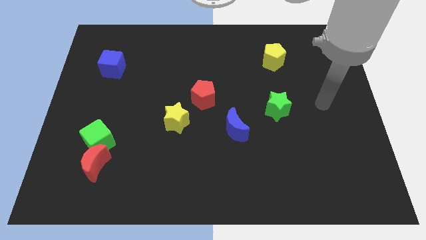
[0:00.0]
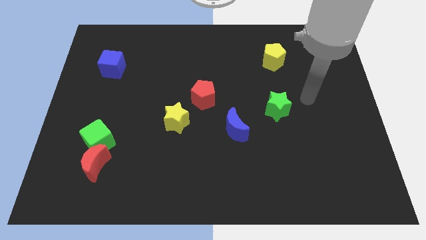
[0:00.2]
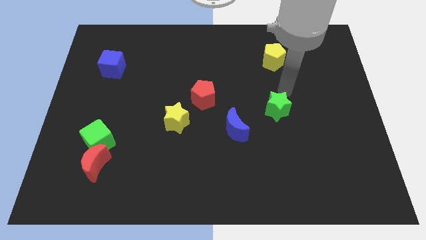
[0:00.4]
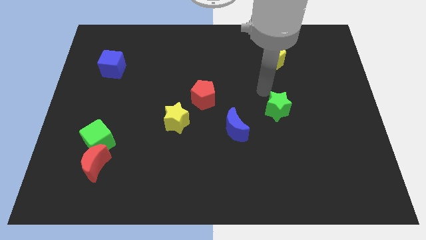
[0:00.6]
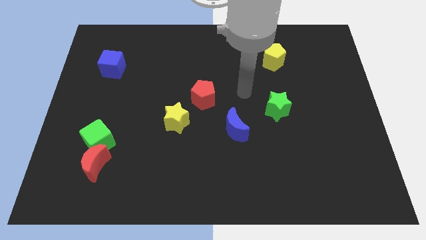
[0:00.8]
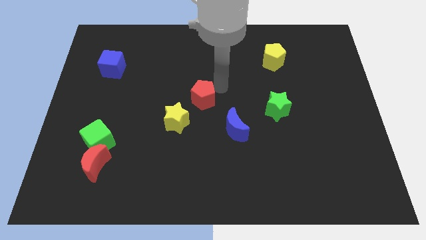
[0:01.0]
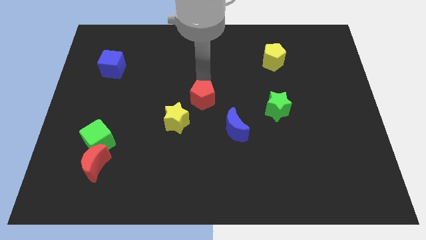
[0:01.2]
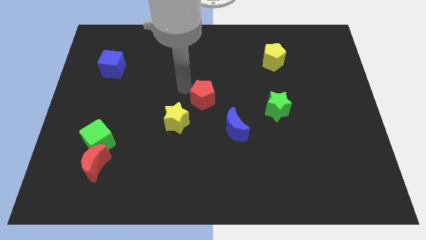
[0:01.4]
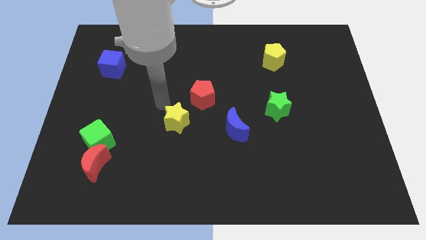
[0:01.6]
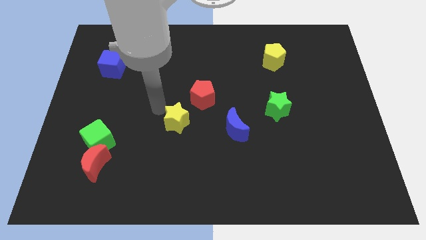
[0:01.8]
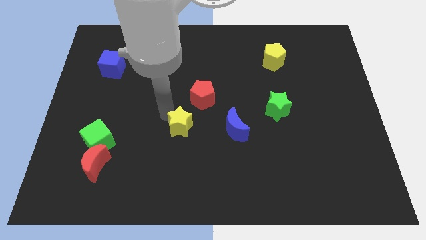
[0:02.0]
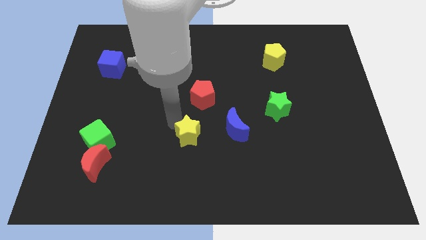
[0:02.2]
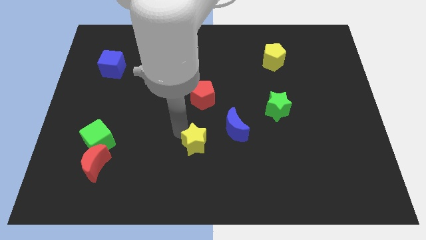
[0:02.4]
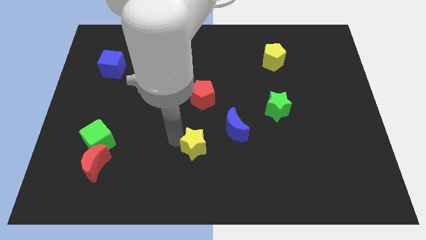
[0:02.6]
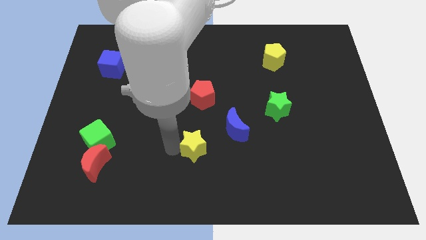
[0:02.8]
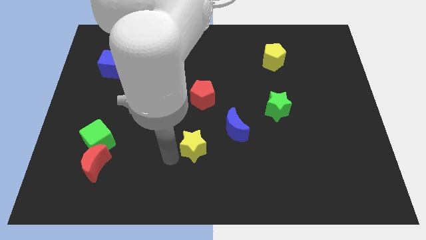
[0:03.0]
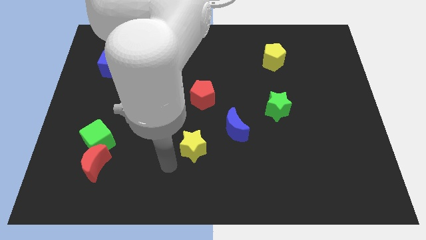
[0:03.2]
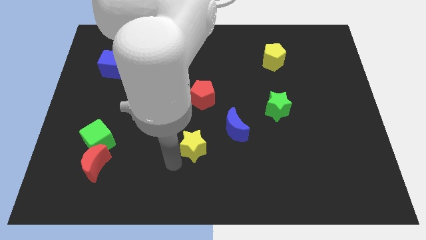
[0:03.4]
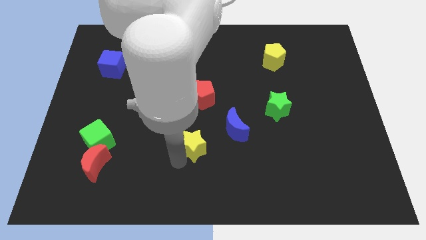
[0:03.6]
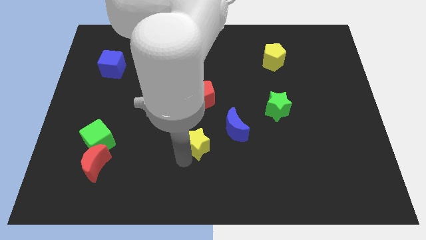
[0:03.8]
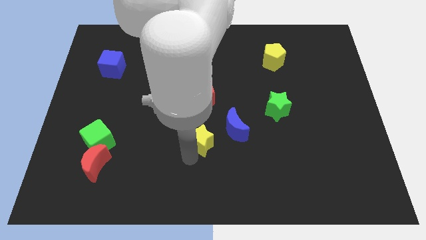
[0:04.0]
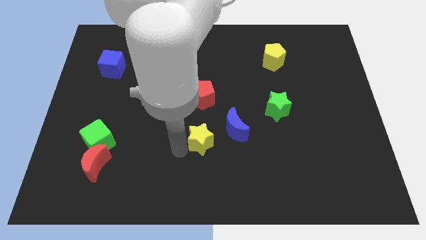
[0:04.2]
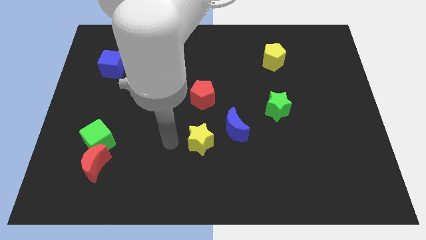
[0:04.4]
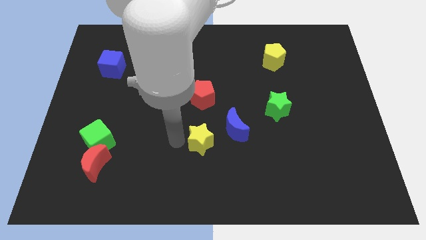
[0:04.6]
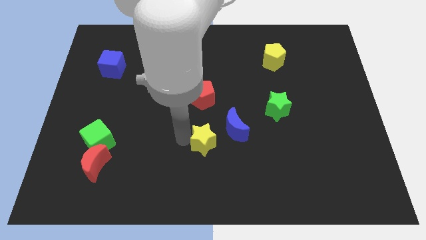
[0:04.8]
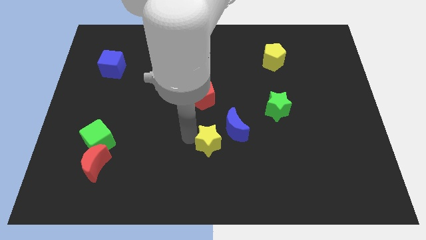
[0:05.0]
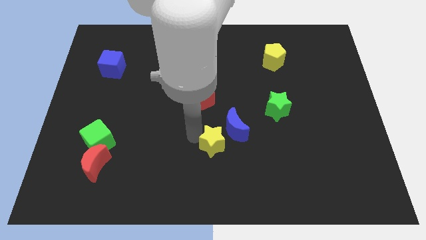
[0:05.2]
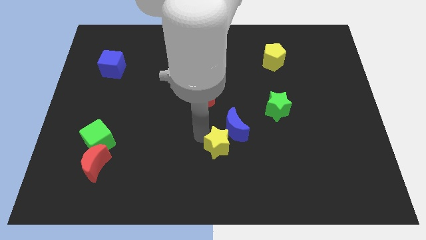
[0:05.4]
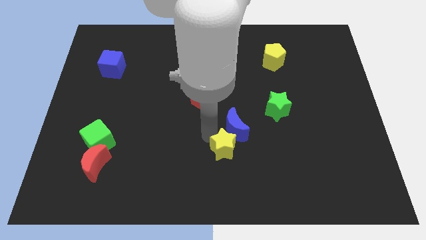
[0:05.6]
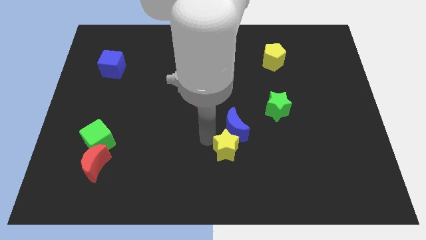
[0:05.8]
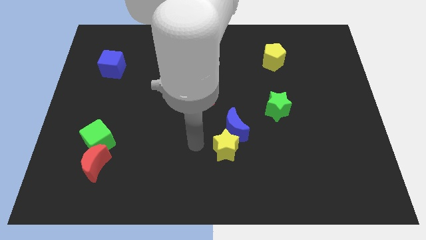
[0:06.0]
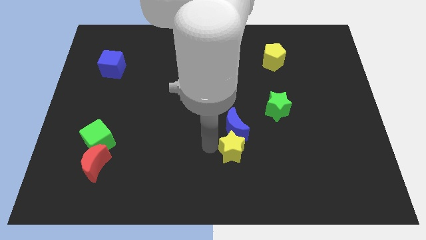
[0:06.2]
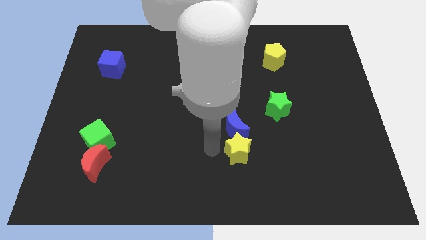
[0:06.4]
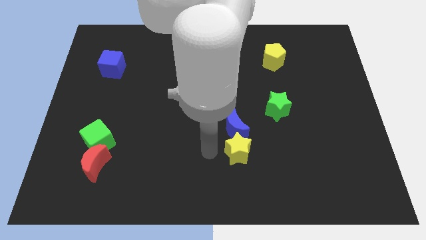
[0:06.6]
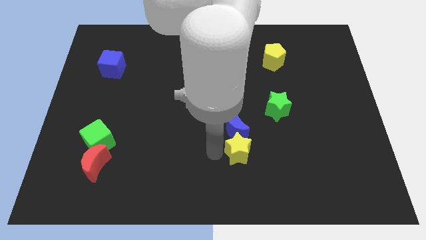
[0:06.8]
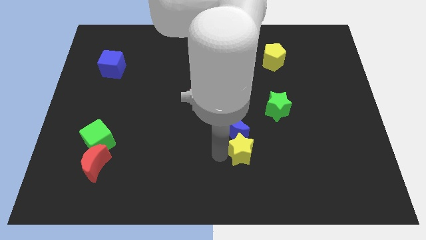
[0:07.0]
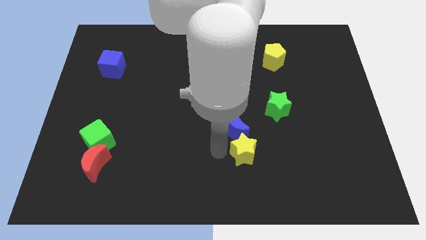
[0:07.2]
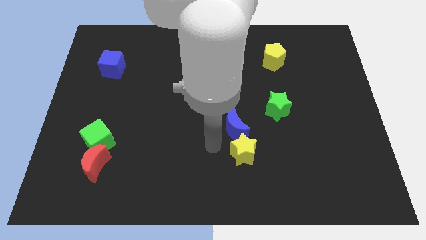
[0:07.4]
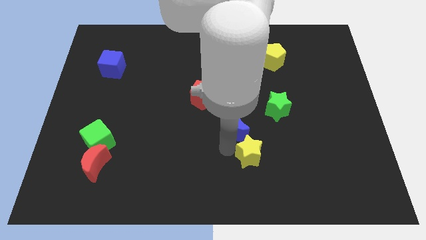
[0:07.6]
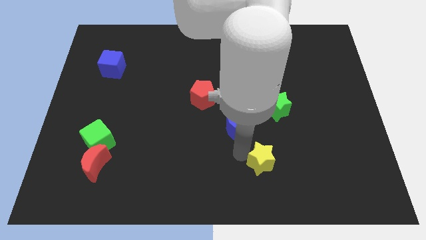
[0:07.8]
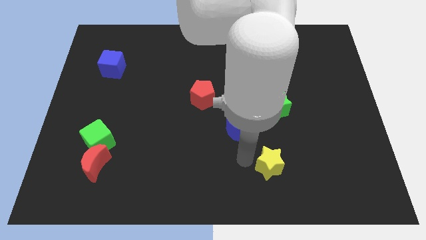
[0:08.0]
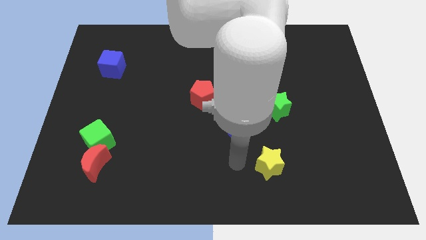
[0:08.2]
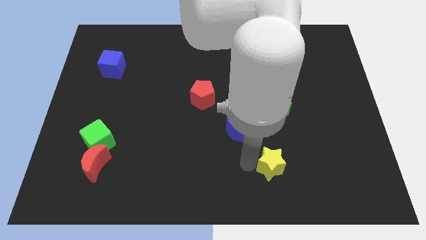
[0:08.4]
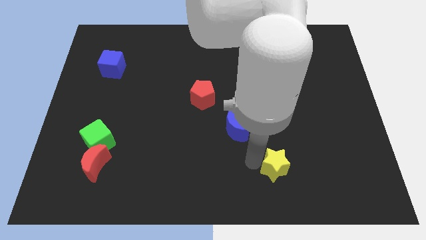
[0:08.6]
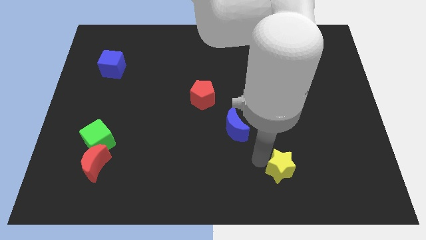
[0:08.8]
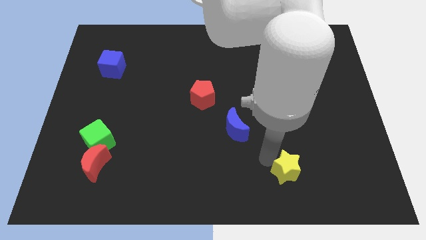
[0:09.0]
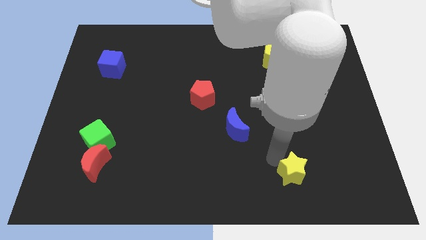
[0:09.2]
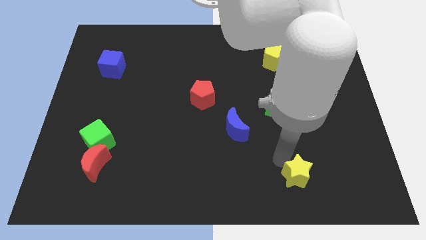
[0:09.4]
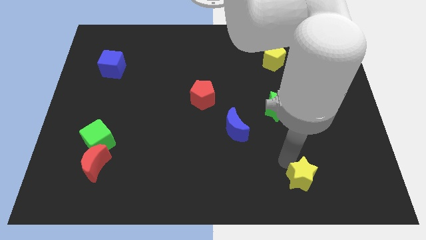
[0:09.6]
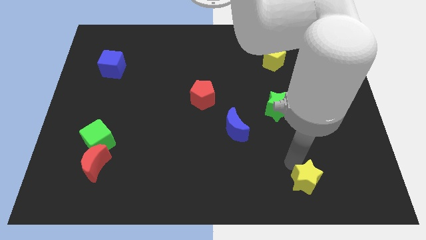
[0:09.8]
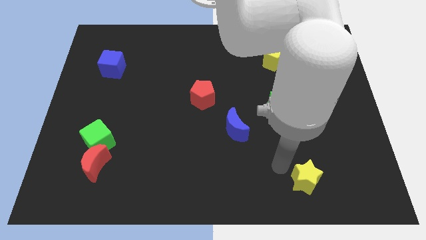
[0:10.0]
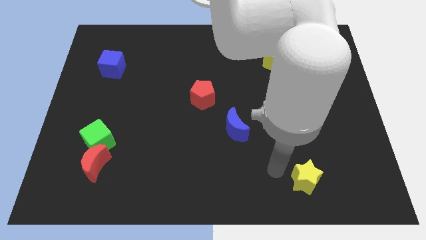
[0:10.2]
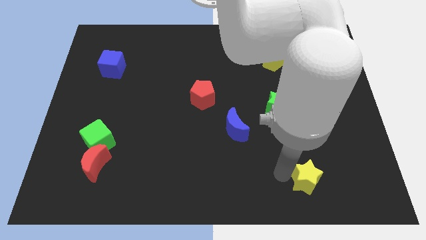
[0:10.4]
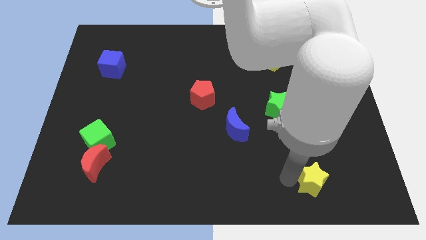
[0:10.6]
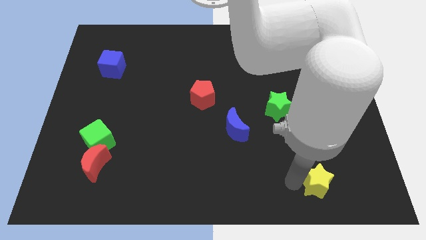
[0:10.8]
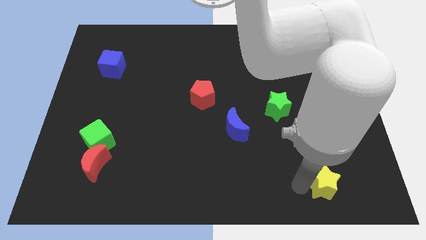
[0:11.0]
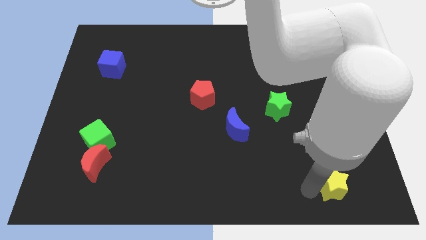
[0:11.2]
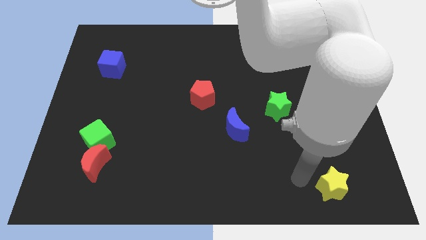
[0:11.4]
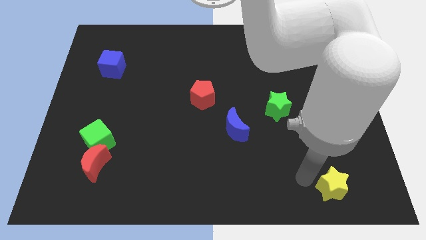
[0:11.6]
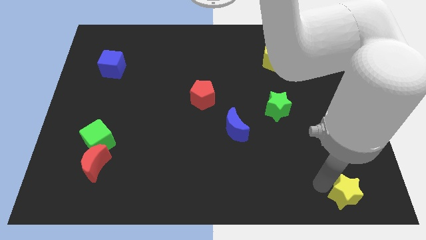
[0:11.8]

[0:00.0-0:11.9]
slide the yellow star to the lower right corner
